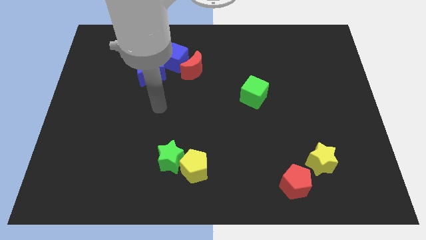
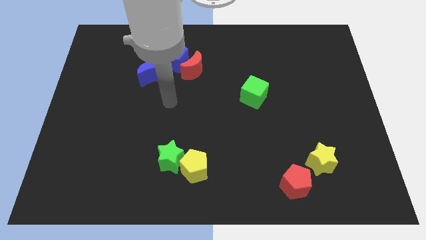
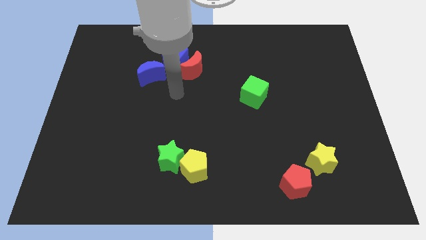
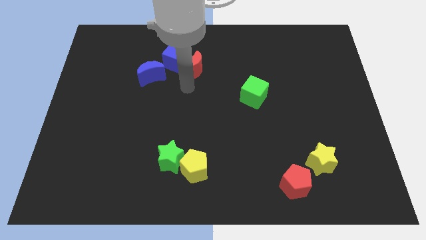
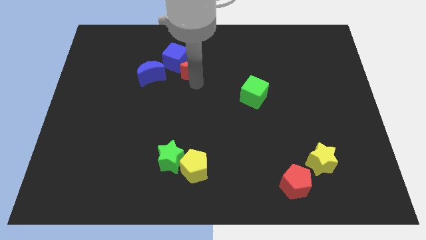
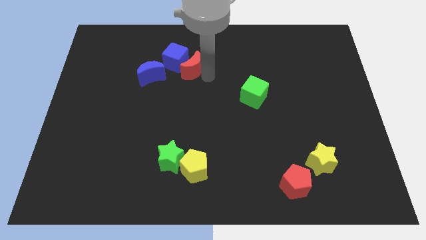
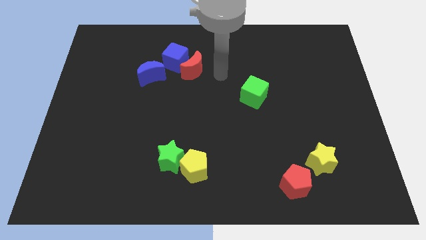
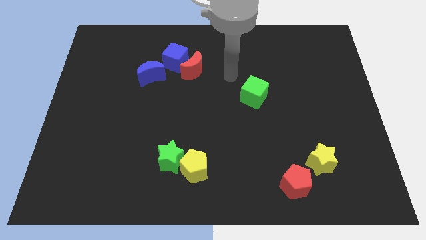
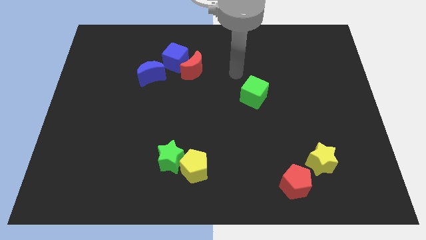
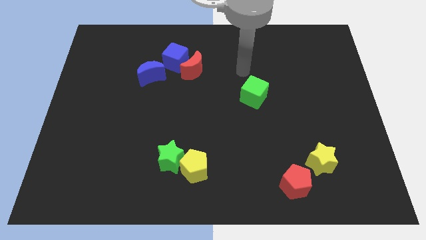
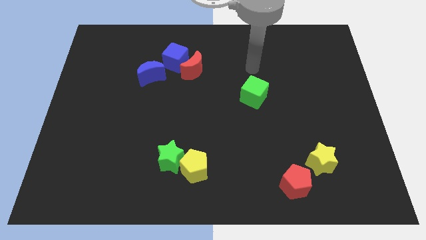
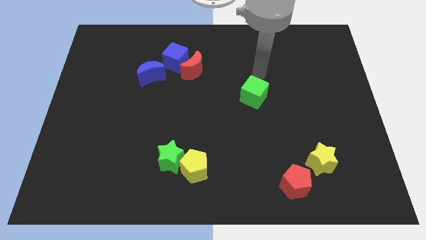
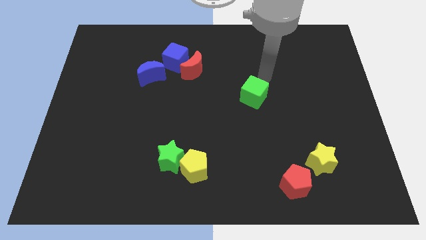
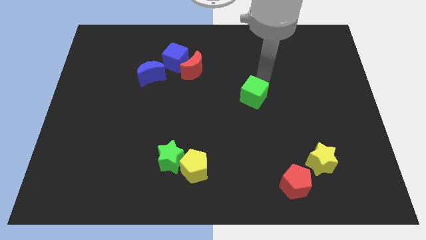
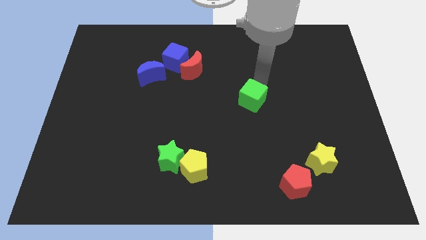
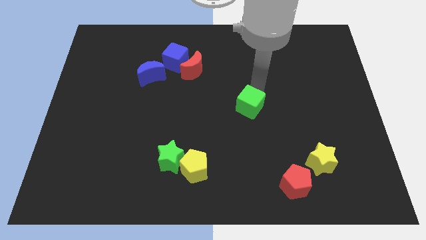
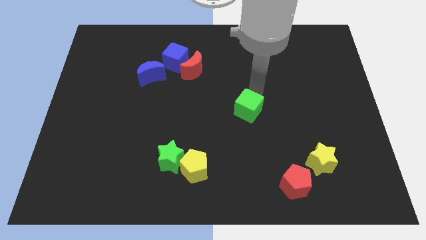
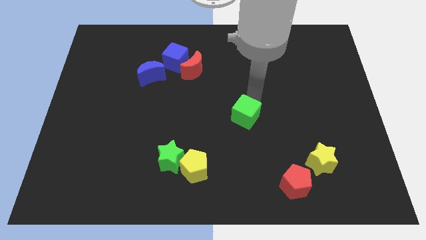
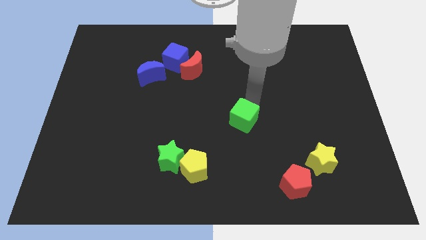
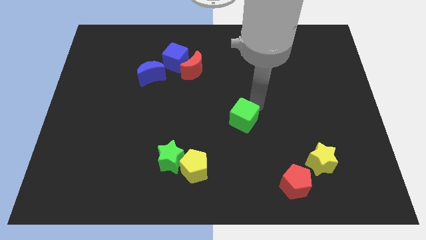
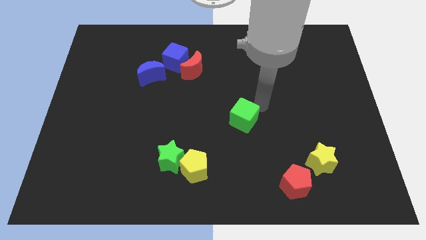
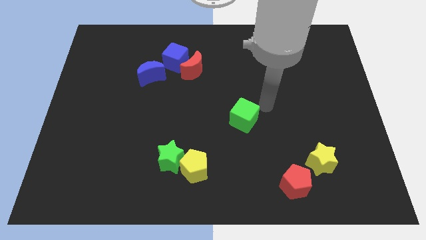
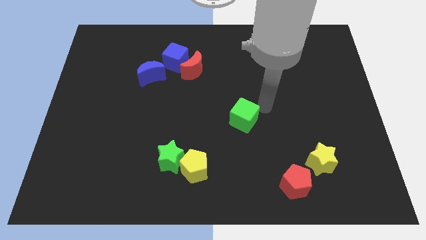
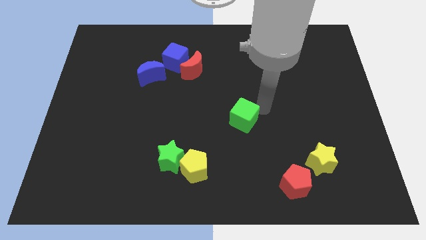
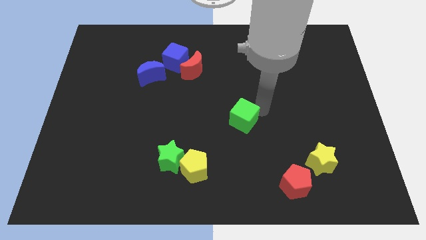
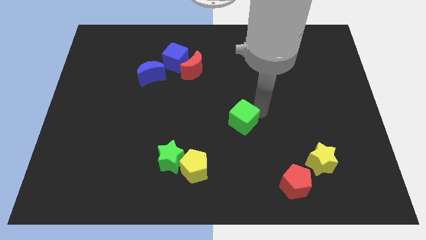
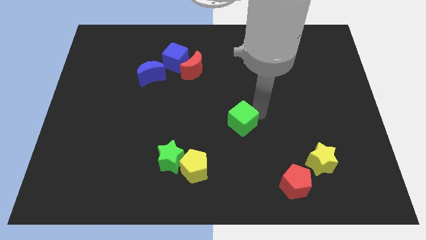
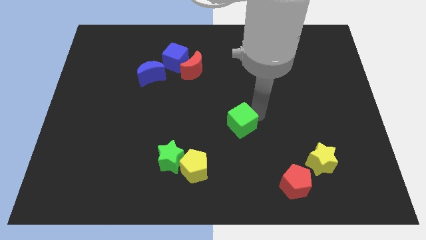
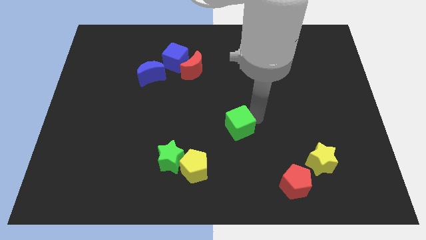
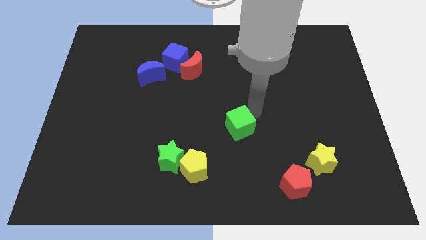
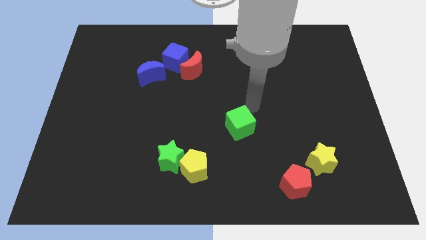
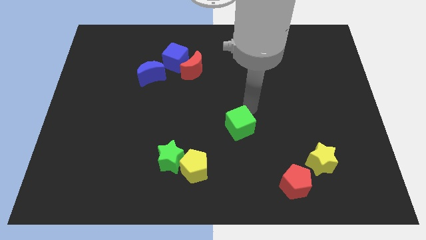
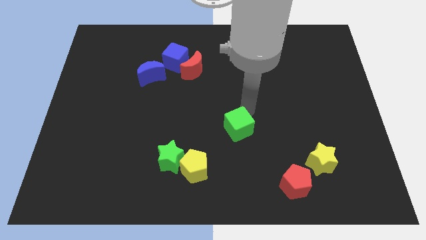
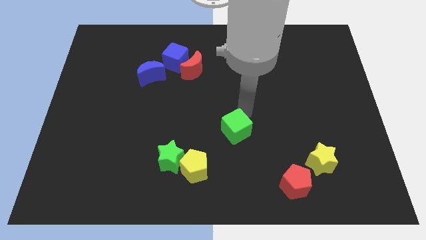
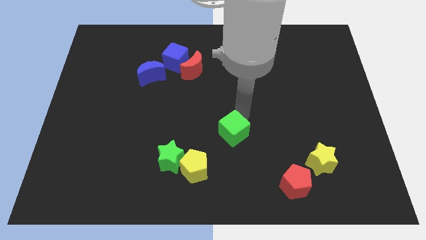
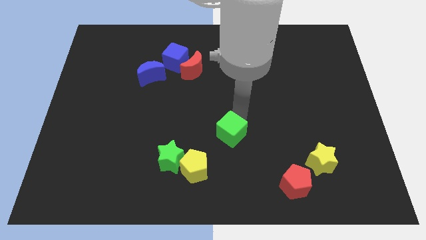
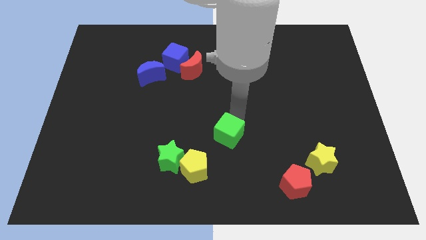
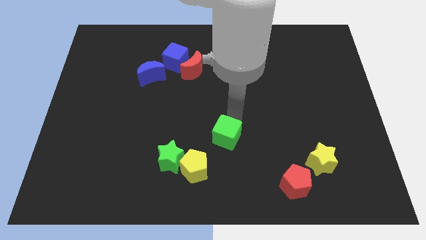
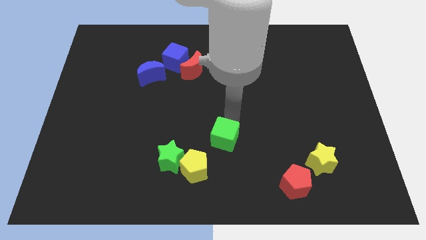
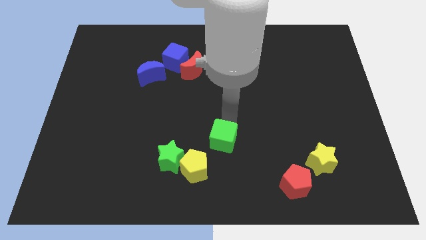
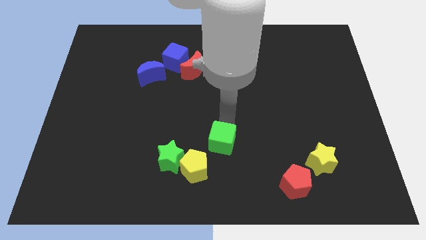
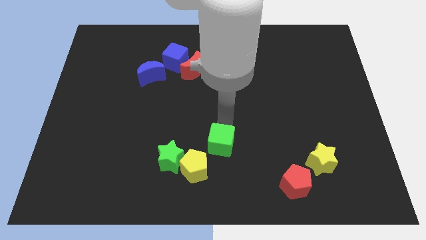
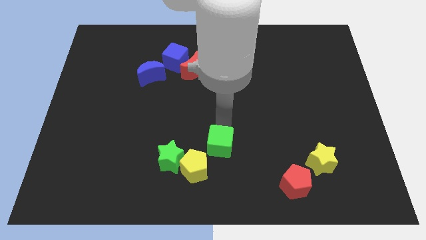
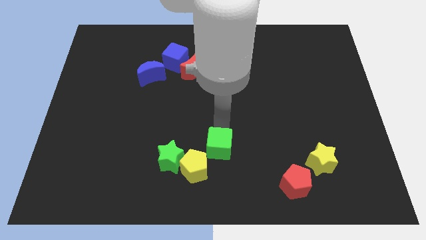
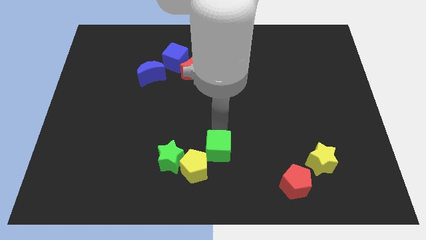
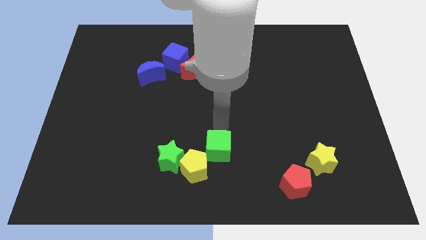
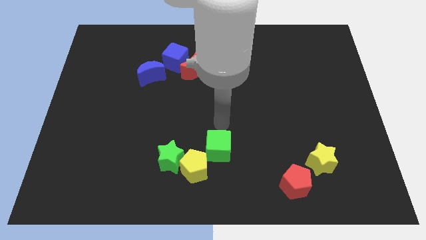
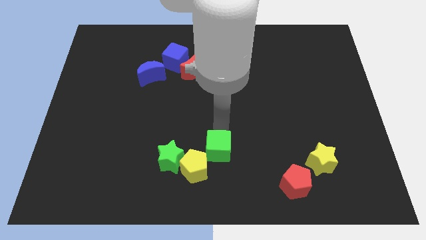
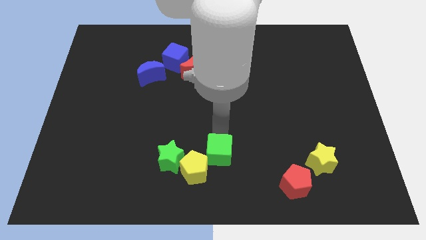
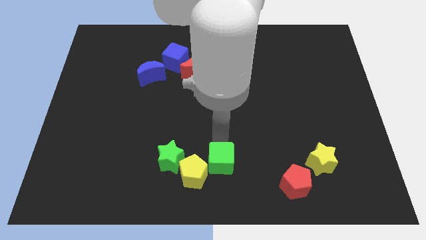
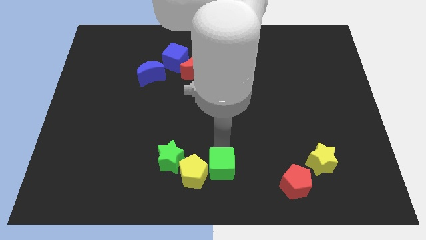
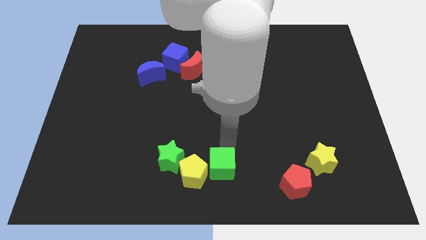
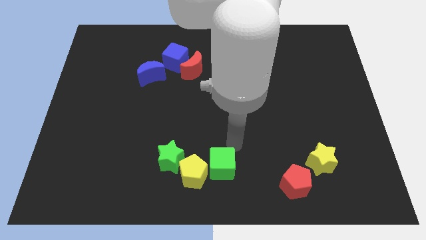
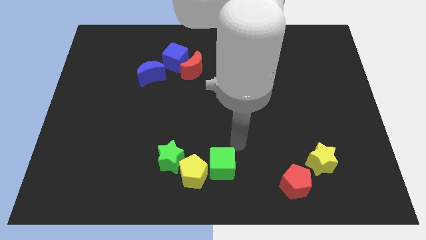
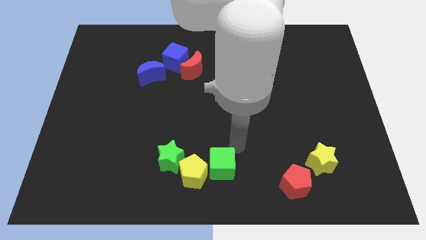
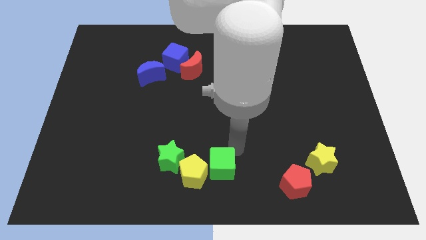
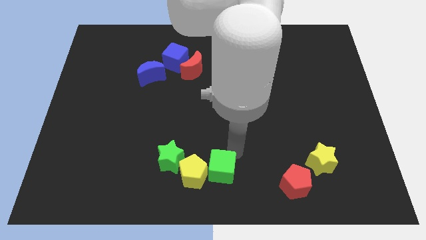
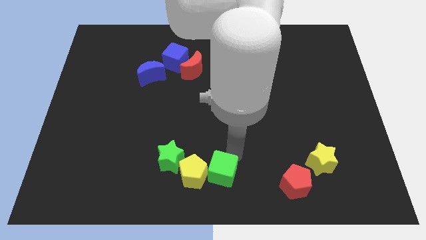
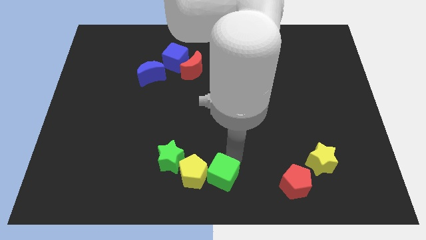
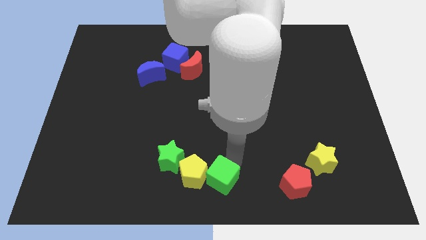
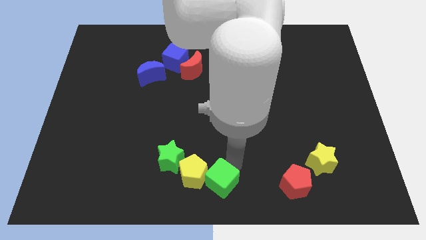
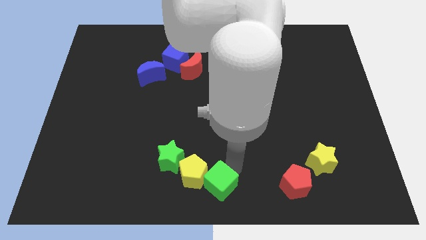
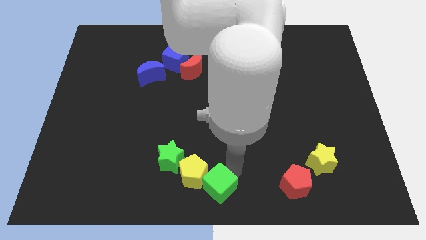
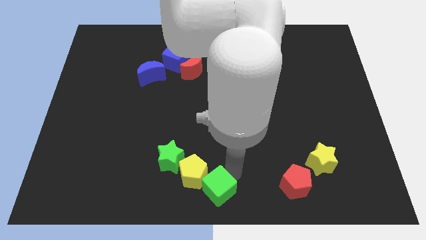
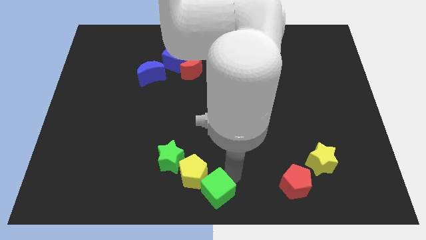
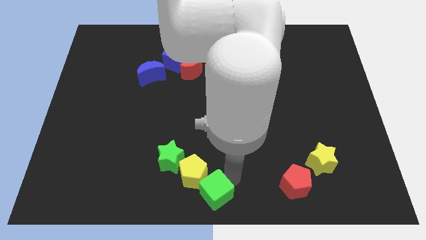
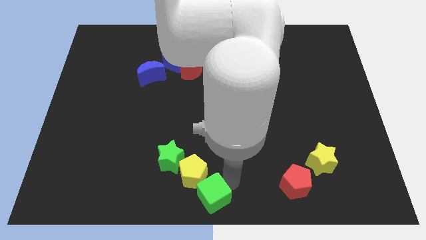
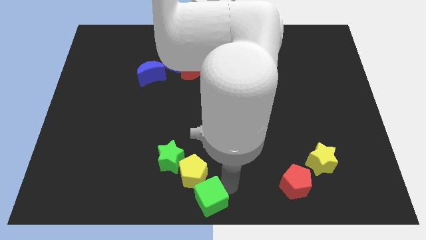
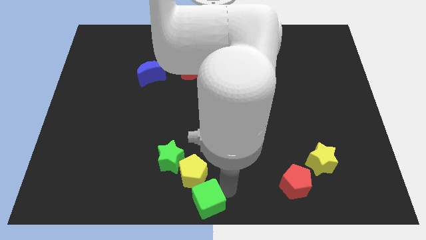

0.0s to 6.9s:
push the green cube downwards and then to the left

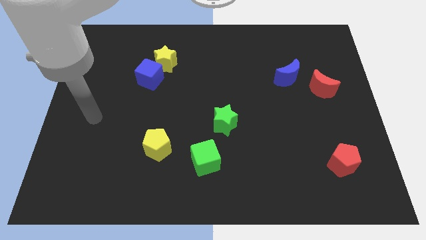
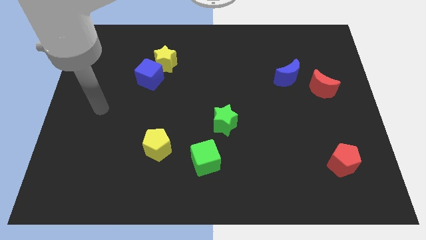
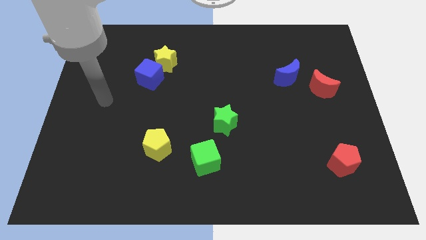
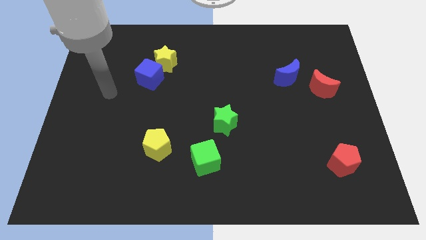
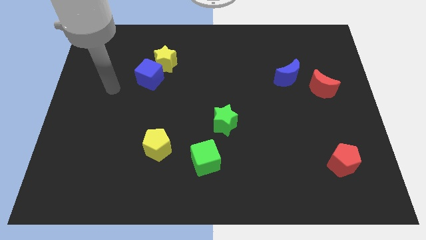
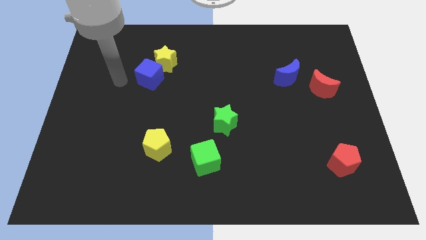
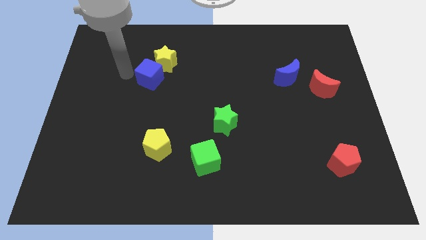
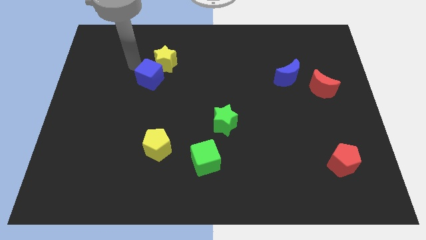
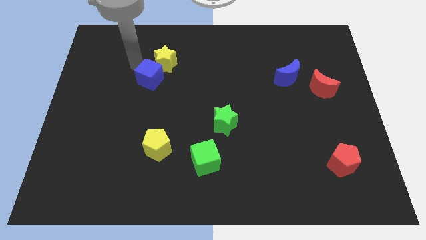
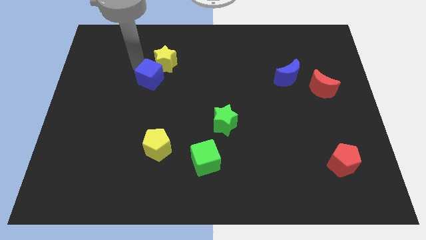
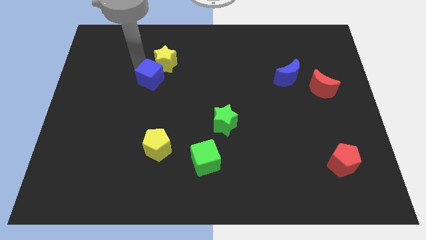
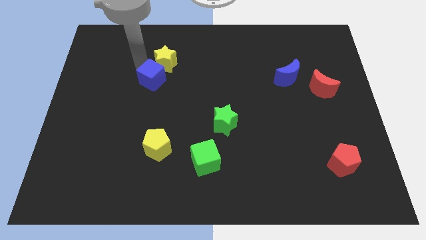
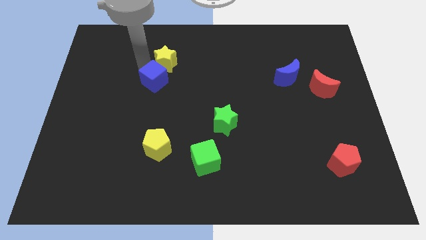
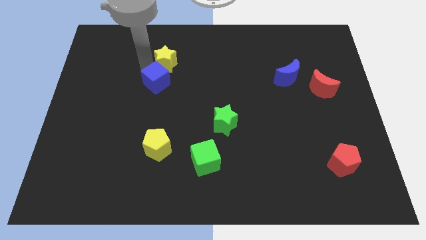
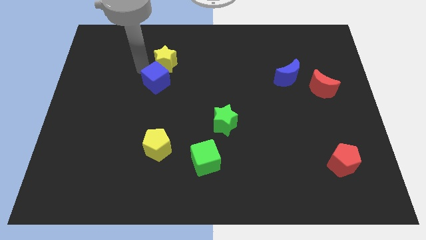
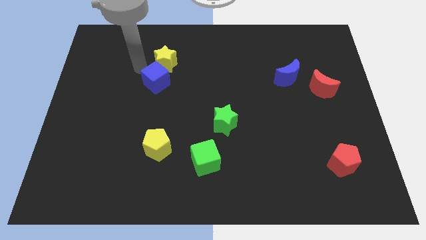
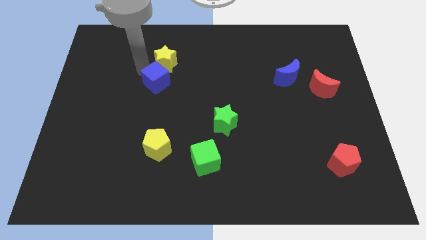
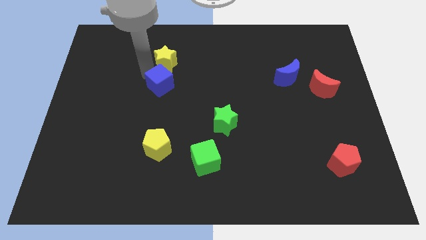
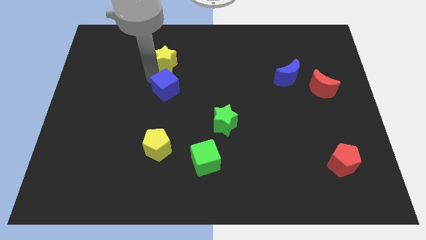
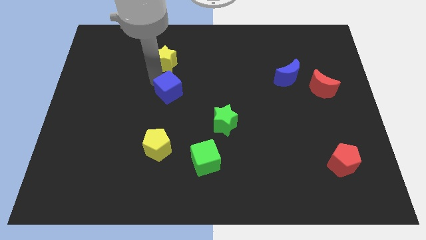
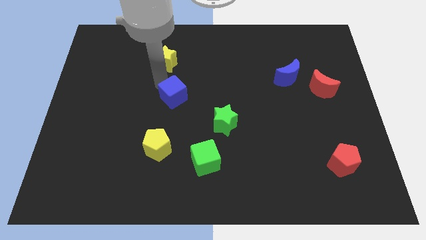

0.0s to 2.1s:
push the blue cube somewhat diagonally downwards and right
